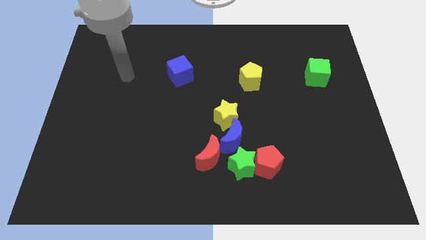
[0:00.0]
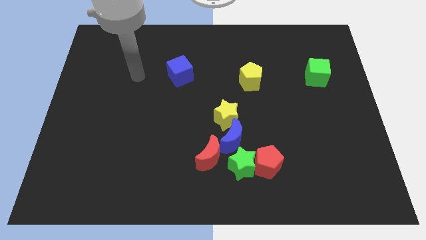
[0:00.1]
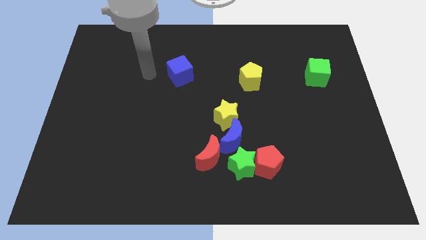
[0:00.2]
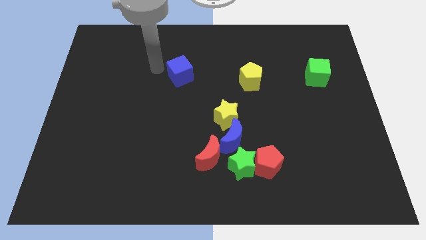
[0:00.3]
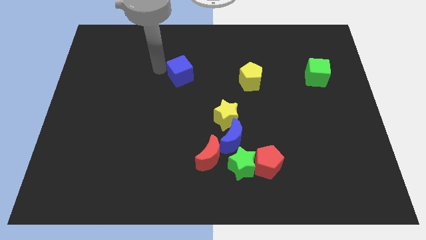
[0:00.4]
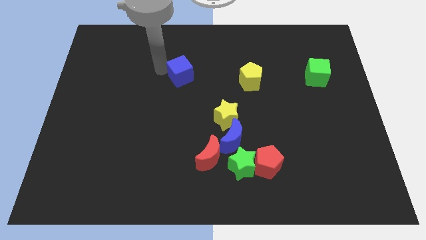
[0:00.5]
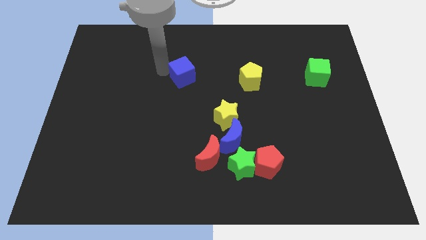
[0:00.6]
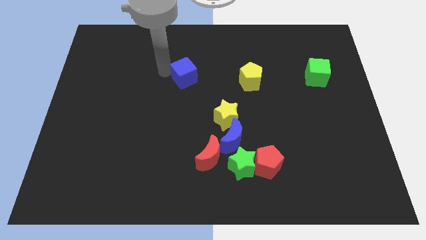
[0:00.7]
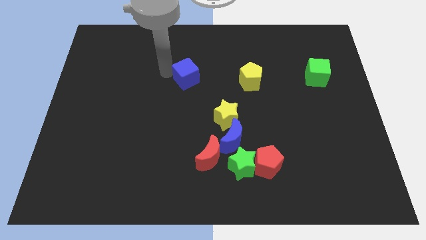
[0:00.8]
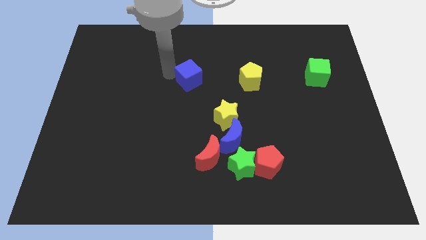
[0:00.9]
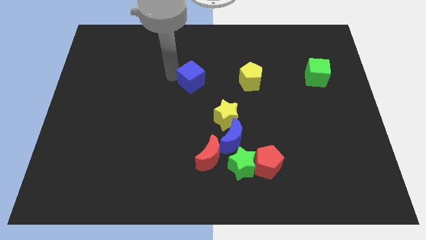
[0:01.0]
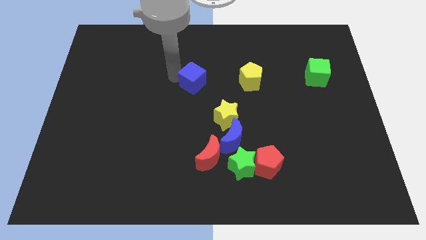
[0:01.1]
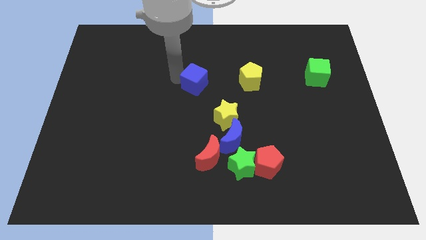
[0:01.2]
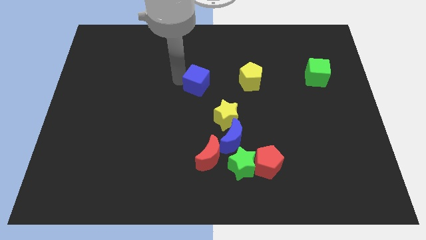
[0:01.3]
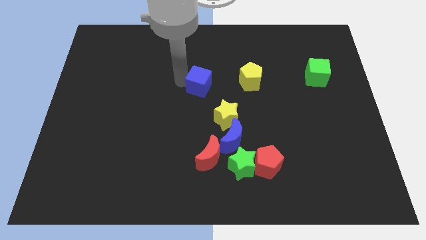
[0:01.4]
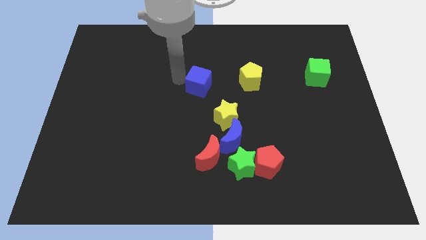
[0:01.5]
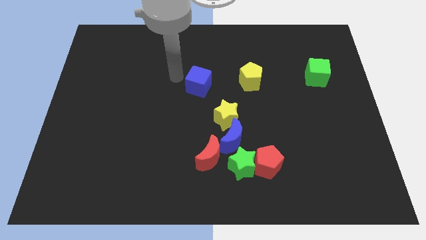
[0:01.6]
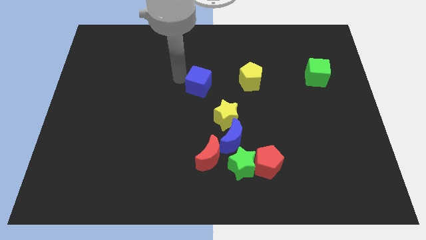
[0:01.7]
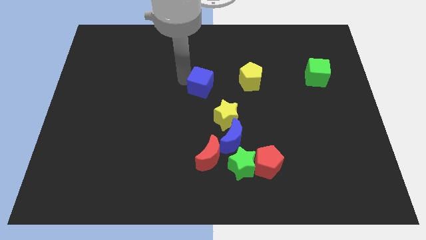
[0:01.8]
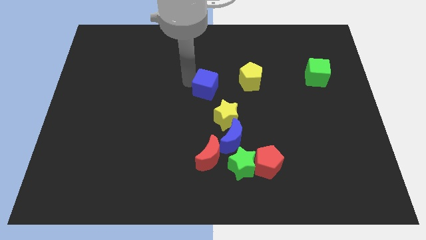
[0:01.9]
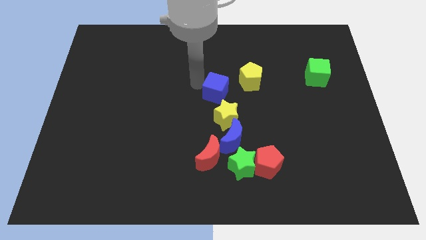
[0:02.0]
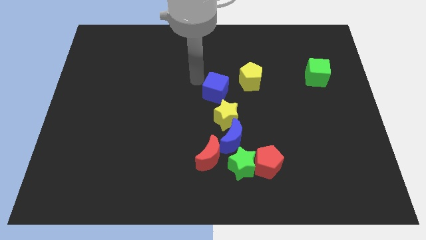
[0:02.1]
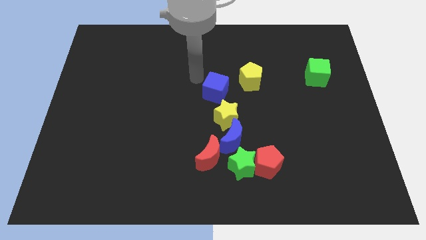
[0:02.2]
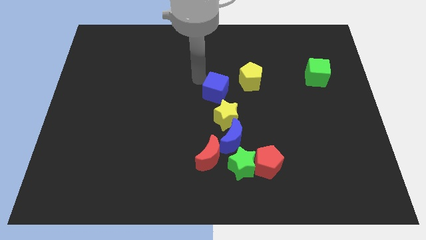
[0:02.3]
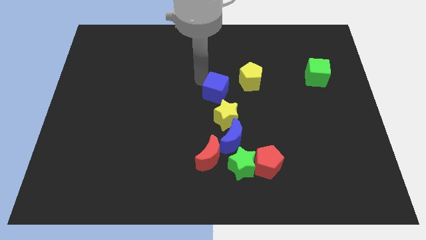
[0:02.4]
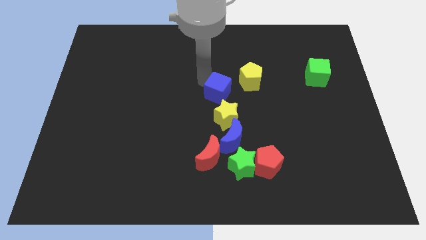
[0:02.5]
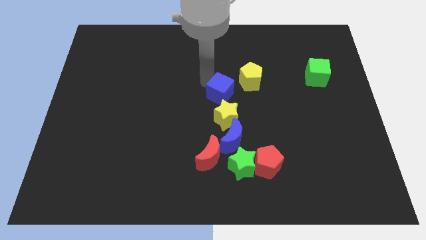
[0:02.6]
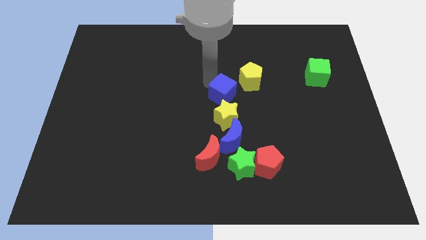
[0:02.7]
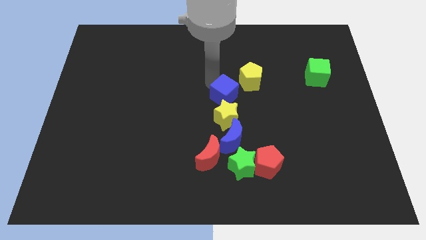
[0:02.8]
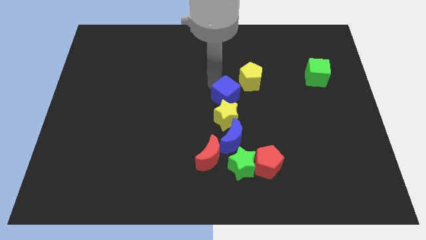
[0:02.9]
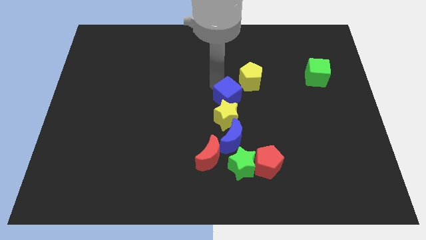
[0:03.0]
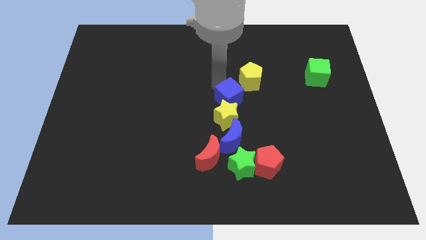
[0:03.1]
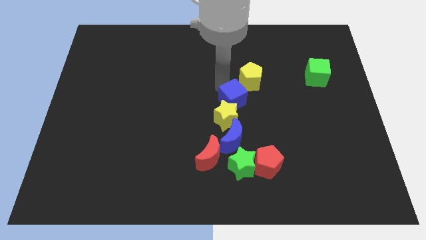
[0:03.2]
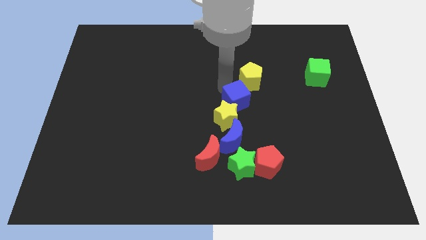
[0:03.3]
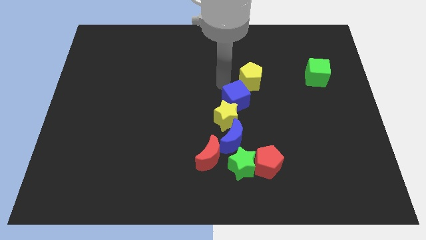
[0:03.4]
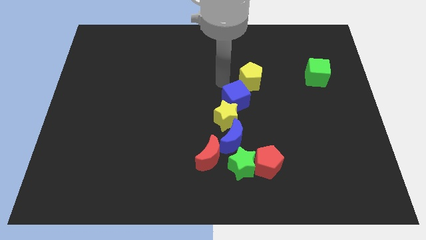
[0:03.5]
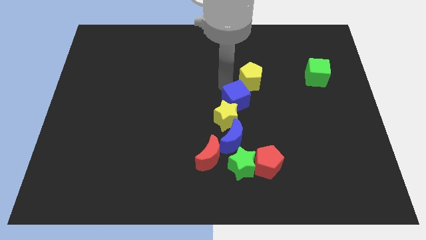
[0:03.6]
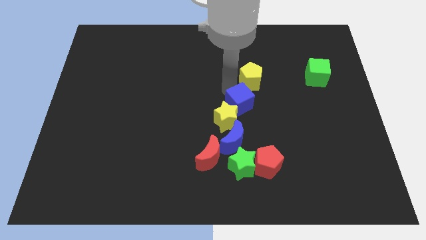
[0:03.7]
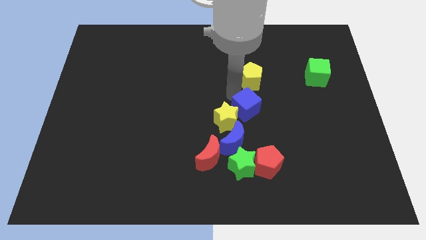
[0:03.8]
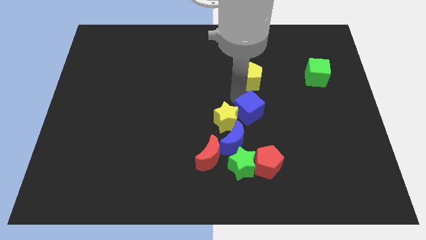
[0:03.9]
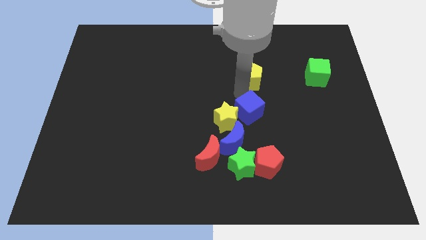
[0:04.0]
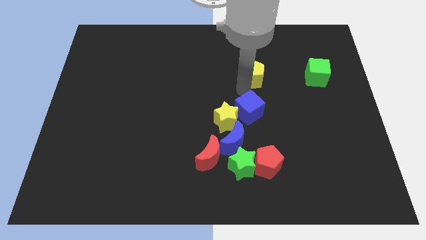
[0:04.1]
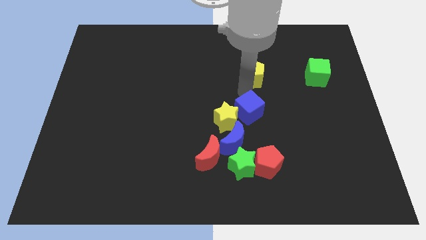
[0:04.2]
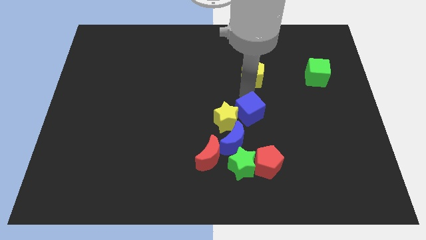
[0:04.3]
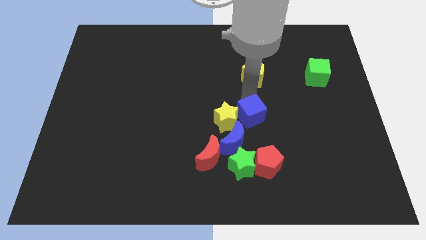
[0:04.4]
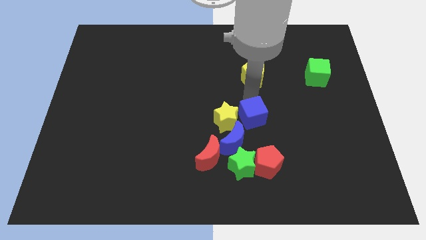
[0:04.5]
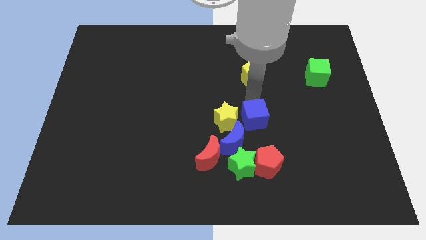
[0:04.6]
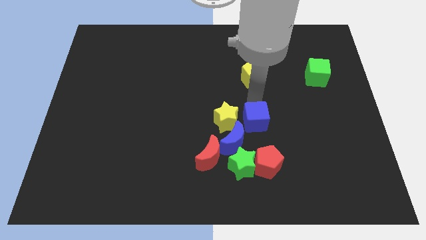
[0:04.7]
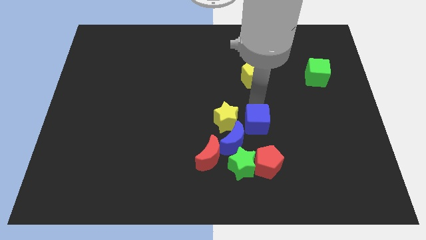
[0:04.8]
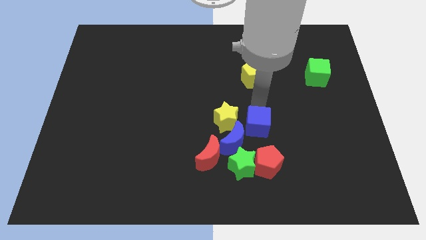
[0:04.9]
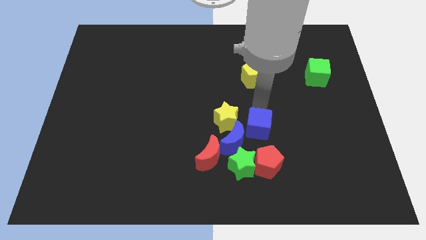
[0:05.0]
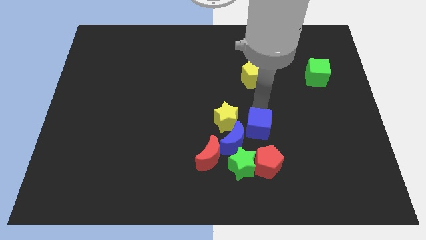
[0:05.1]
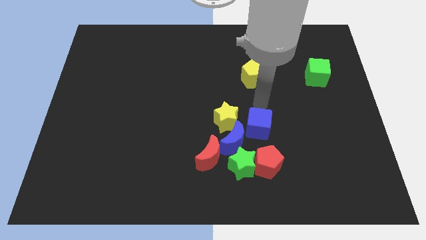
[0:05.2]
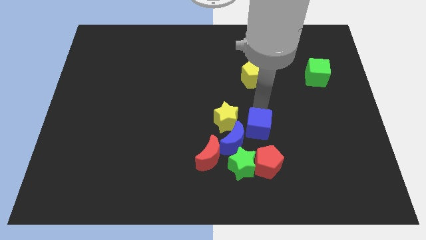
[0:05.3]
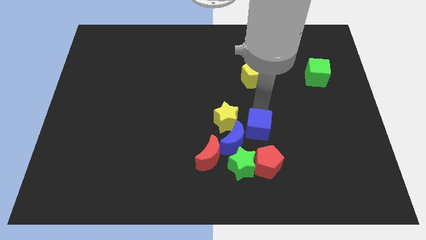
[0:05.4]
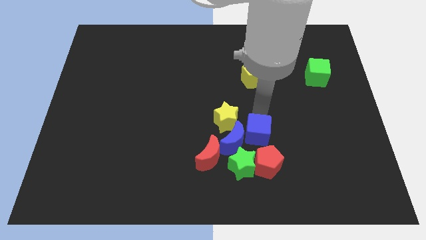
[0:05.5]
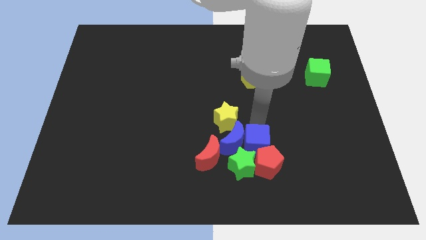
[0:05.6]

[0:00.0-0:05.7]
move the blue cube next to the red pentagon

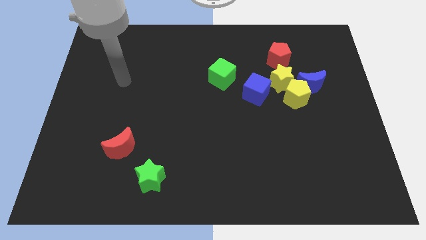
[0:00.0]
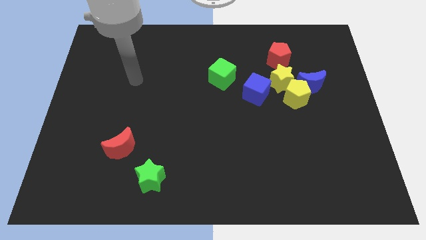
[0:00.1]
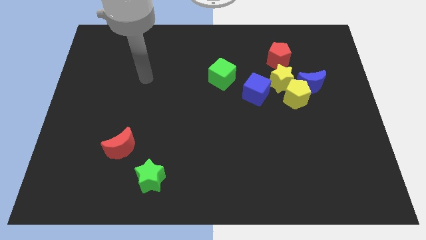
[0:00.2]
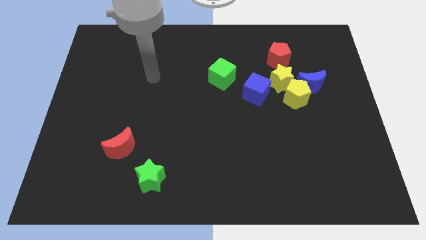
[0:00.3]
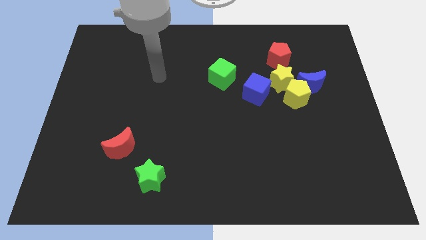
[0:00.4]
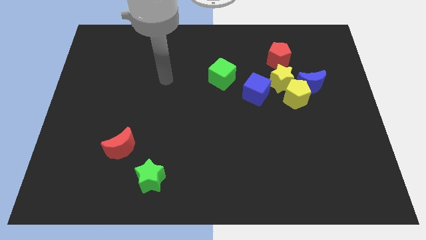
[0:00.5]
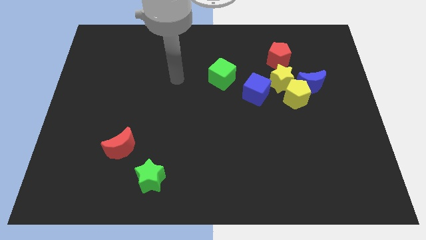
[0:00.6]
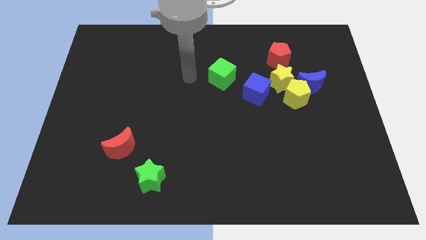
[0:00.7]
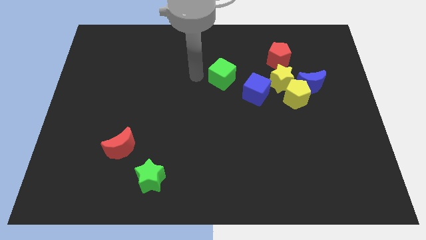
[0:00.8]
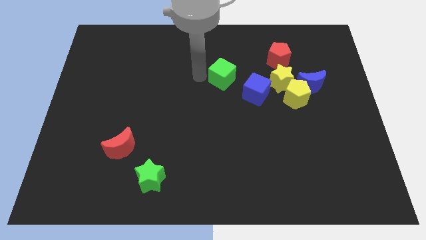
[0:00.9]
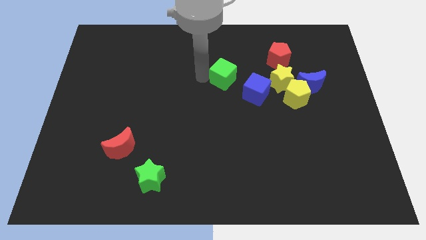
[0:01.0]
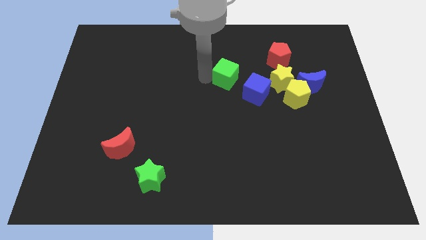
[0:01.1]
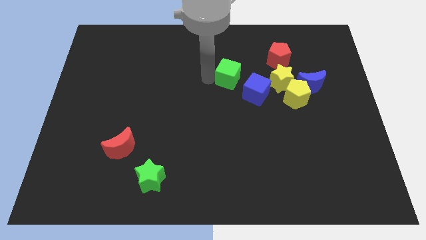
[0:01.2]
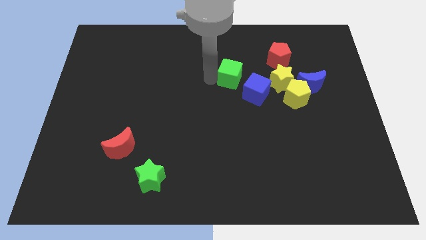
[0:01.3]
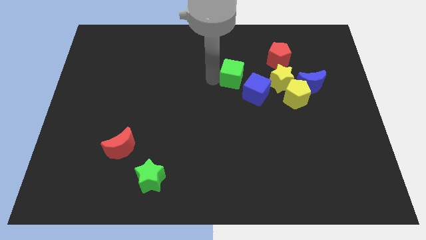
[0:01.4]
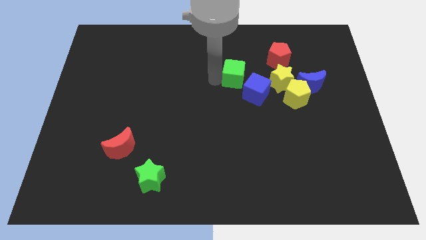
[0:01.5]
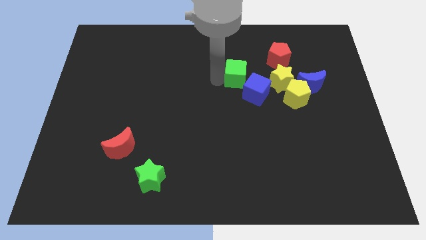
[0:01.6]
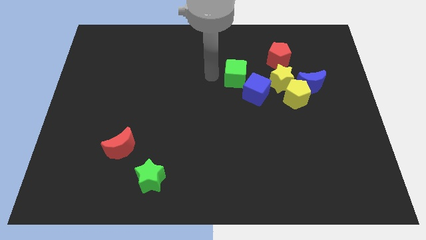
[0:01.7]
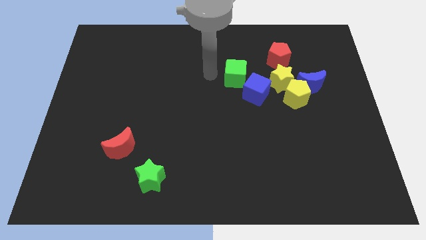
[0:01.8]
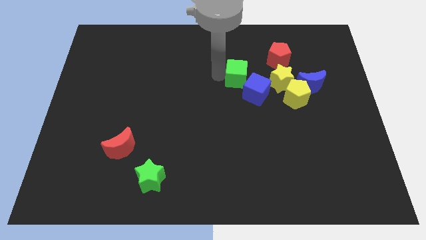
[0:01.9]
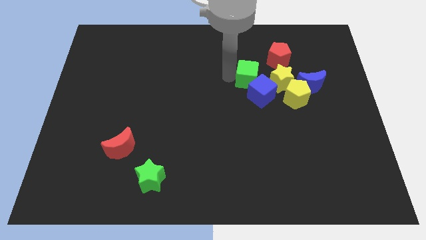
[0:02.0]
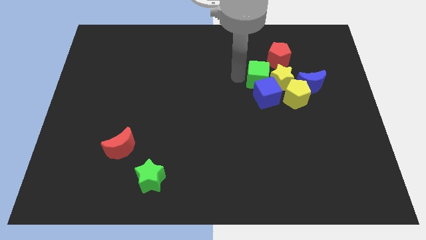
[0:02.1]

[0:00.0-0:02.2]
put the green cube close to the yellow star
